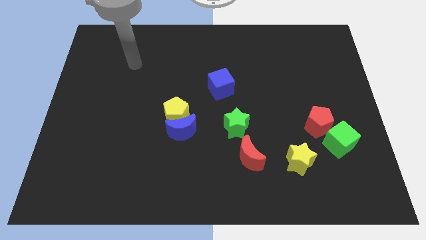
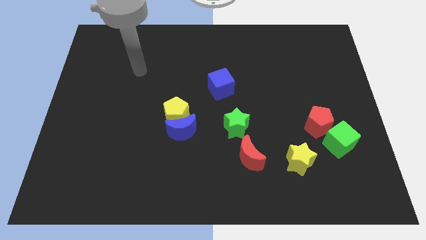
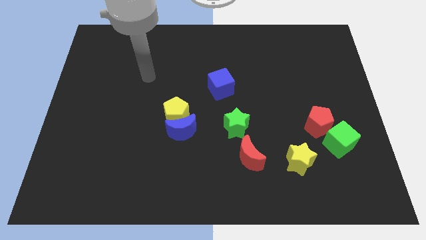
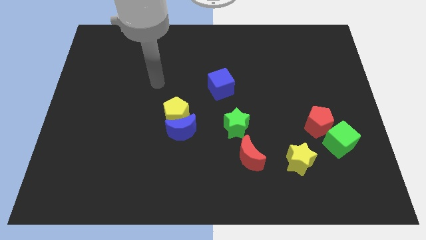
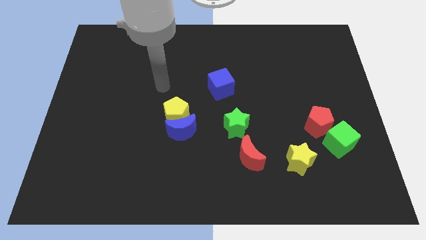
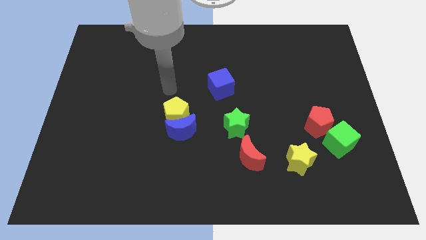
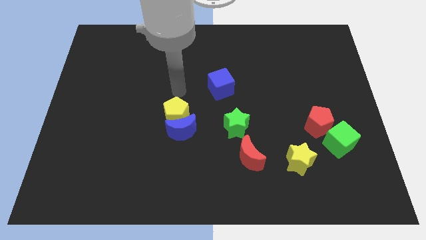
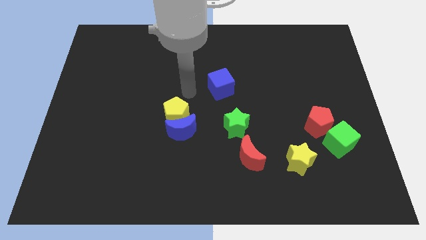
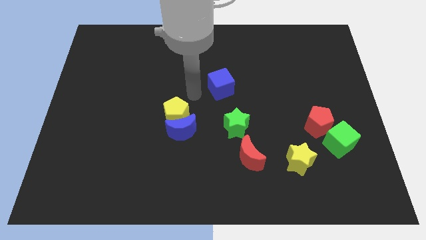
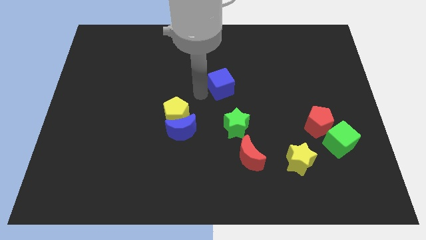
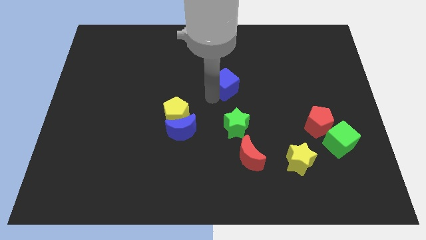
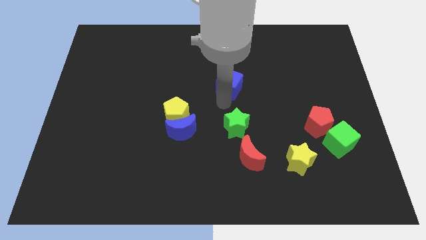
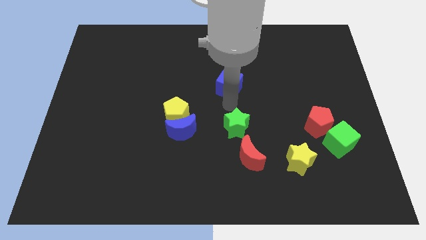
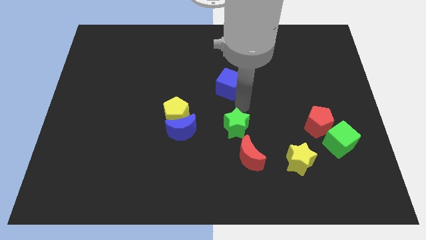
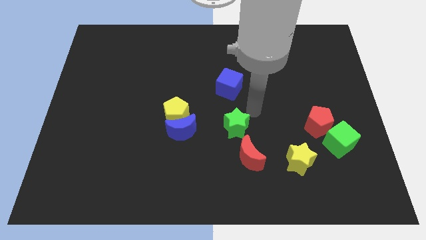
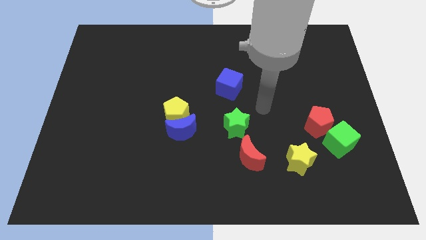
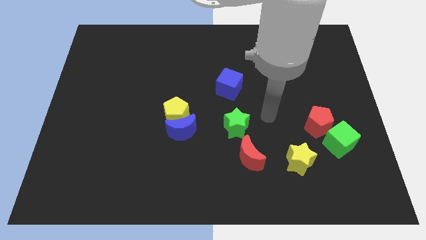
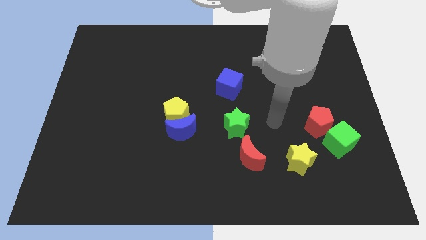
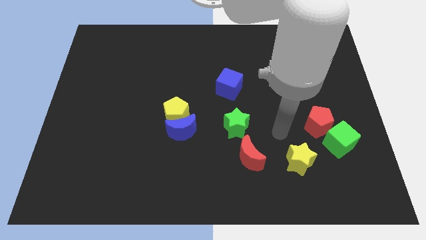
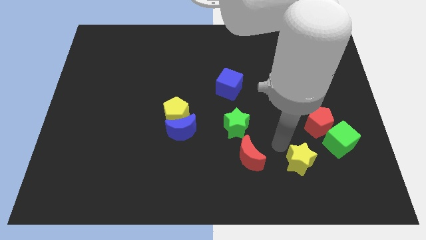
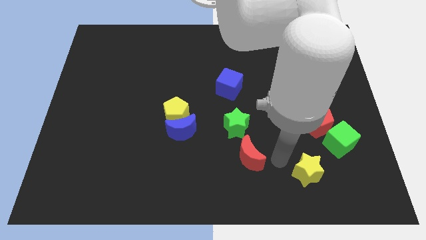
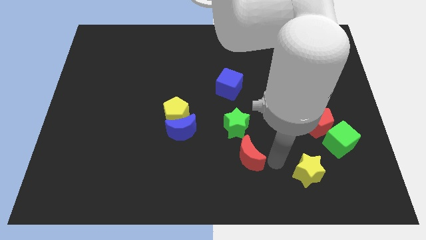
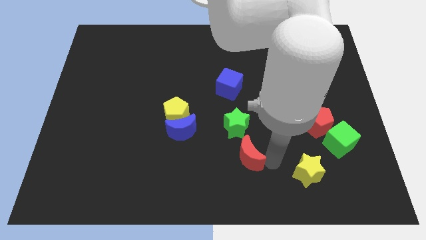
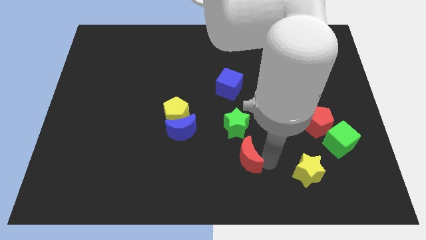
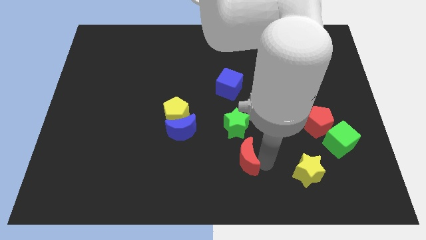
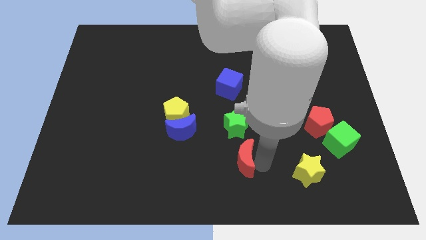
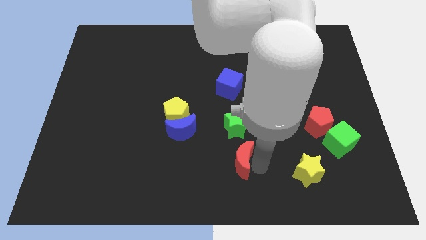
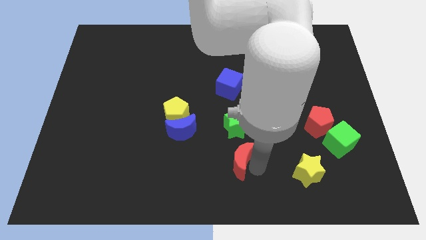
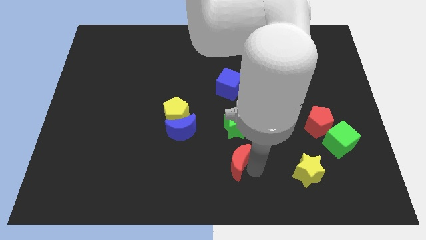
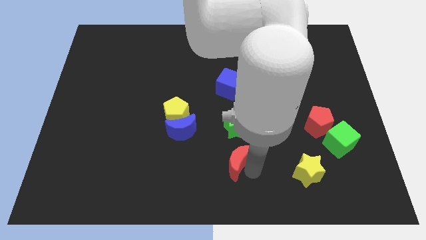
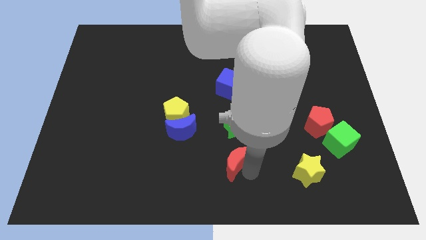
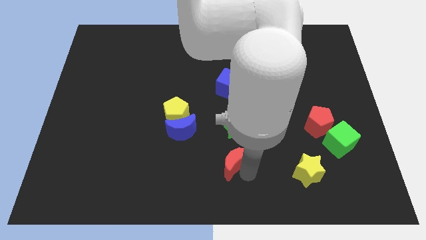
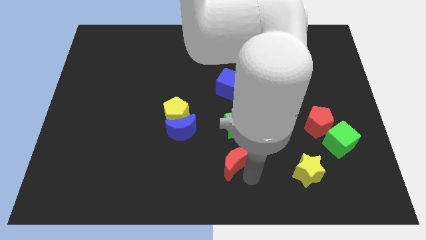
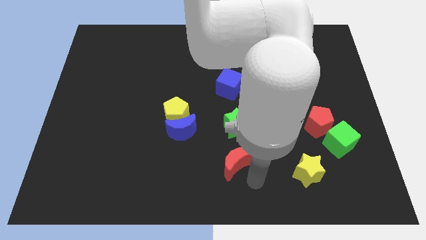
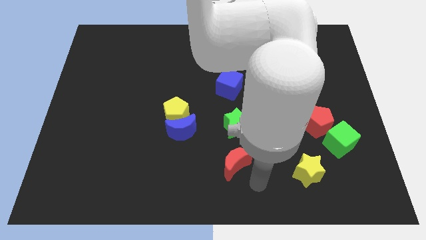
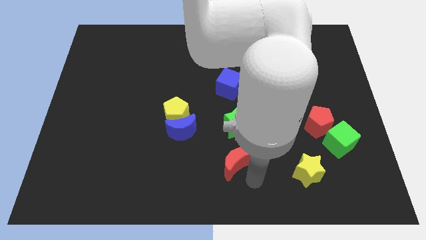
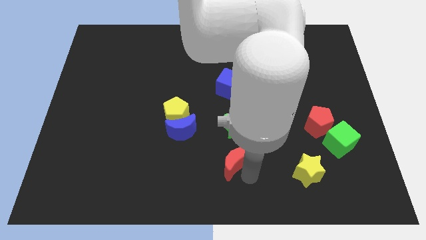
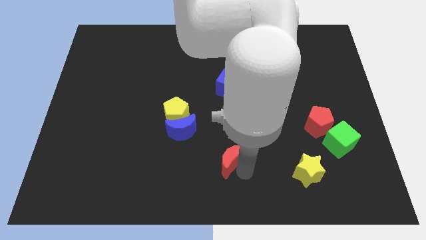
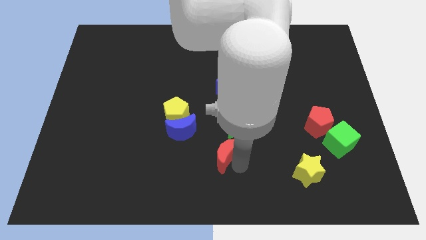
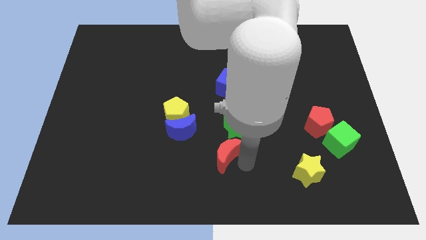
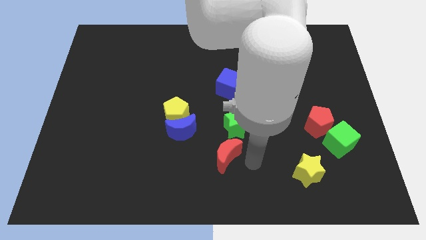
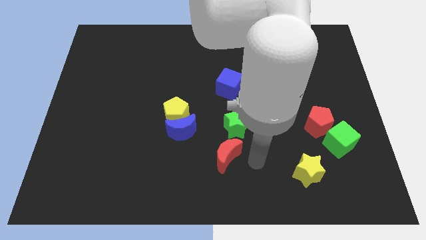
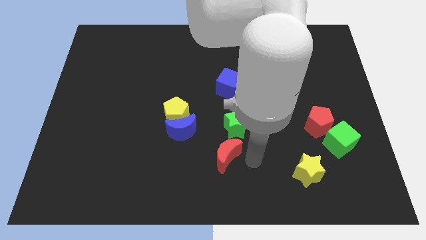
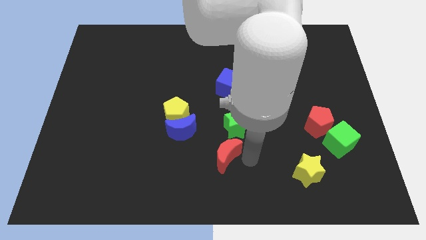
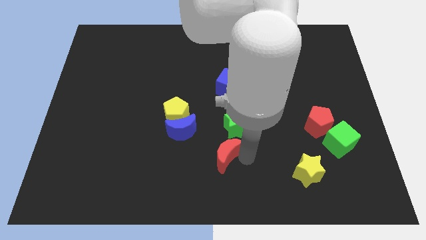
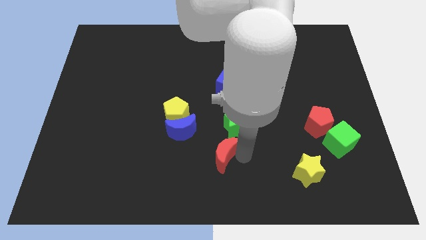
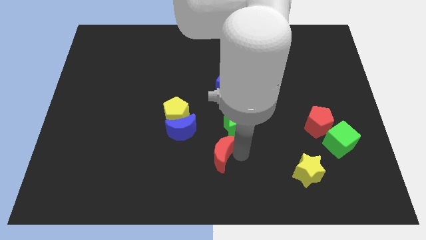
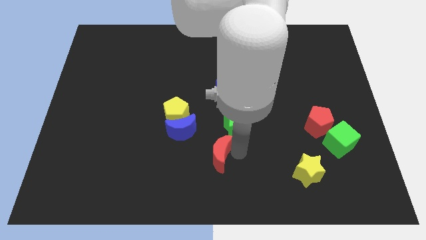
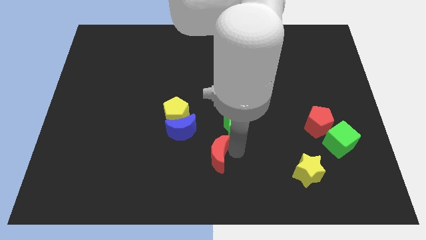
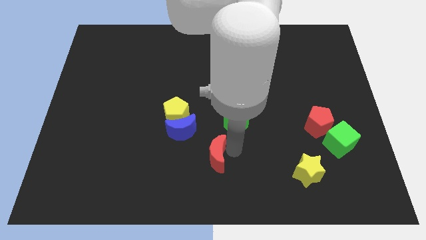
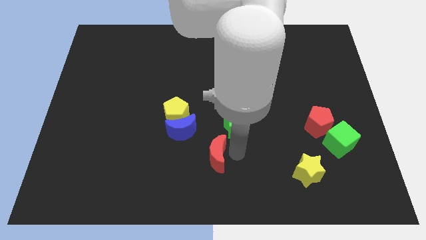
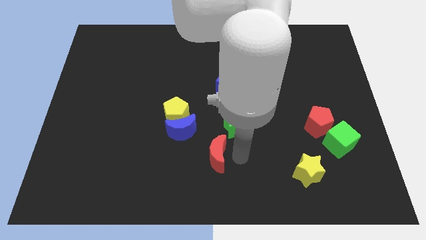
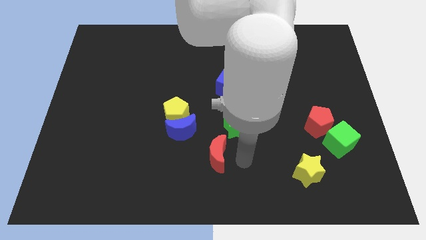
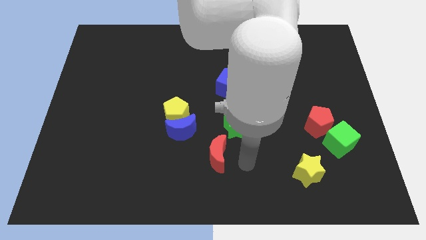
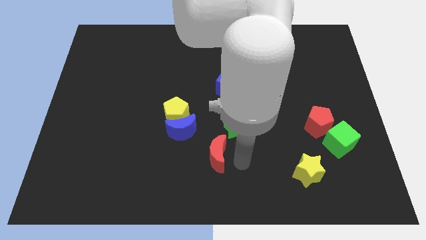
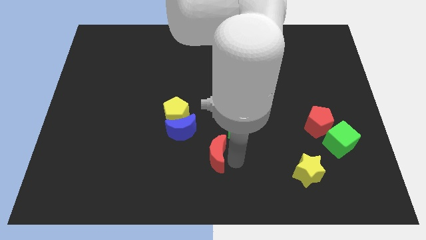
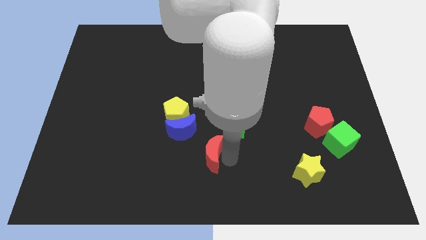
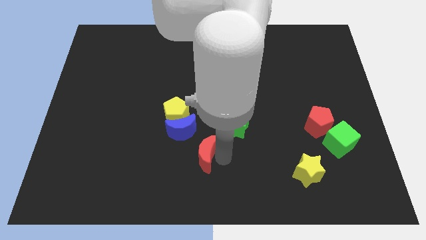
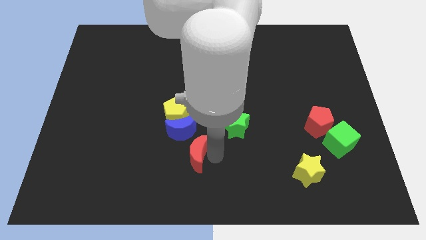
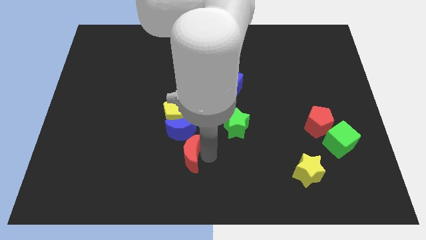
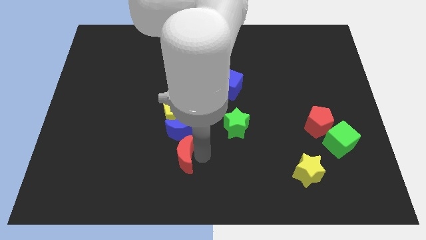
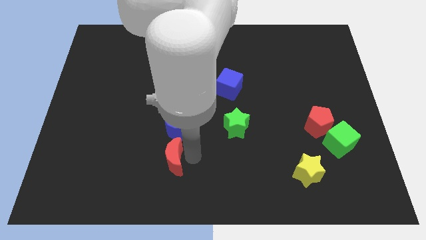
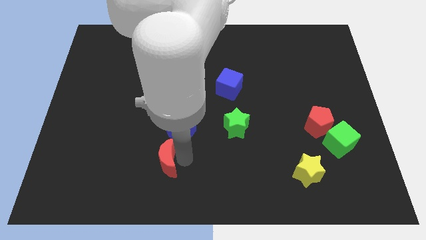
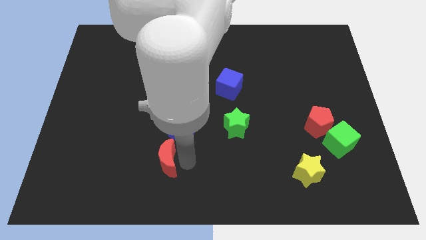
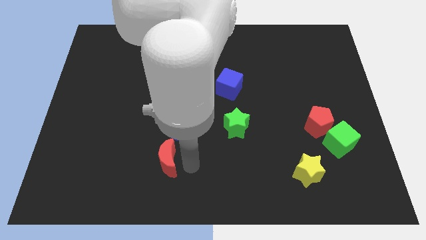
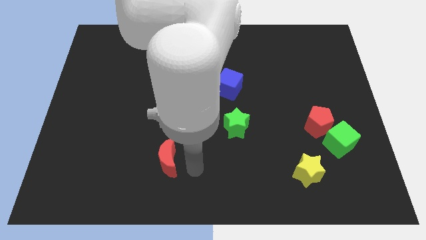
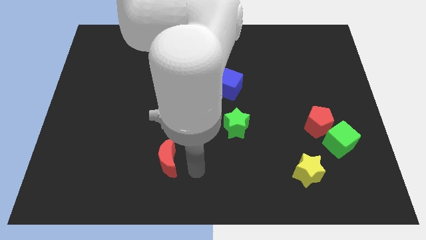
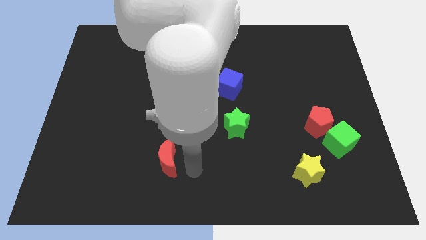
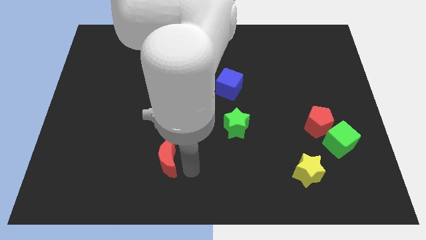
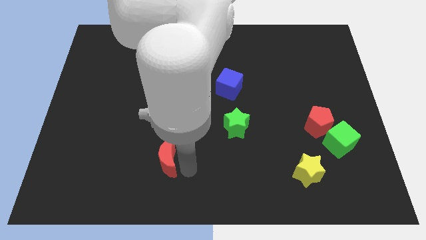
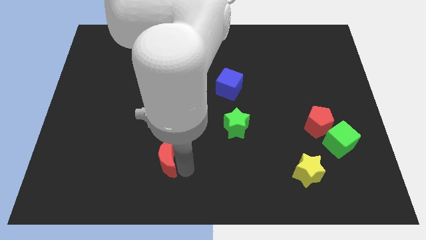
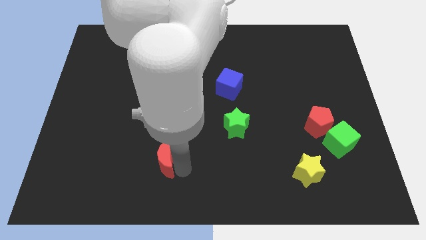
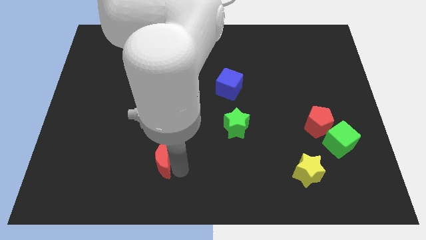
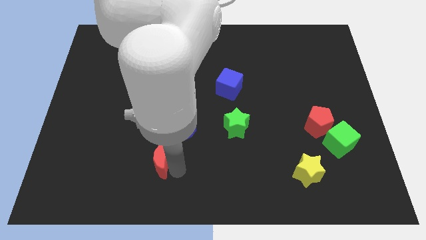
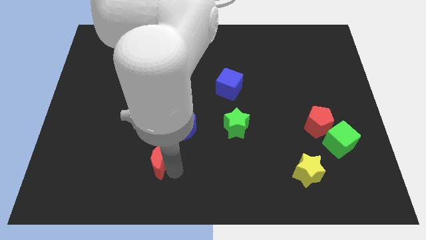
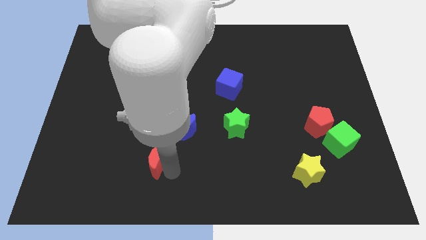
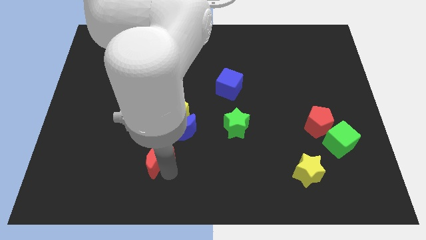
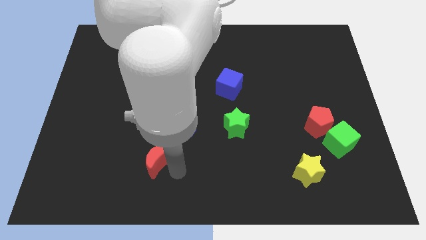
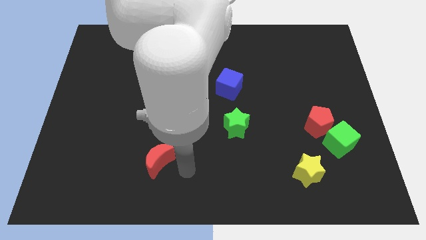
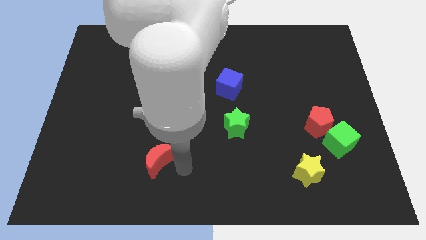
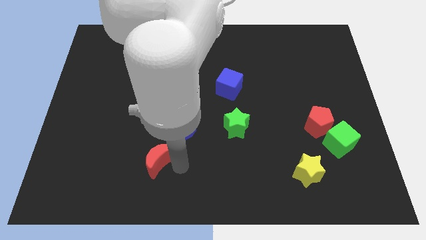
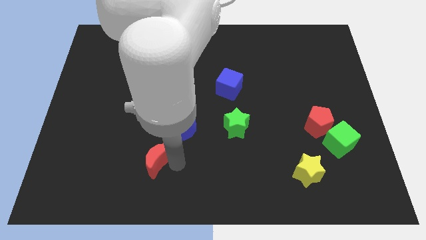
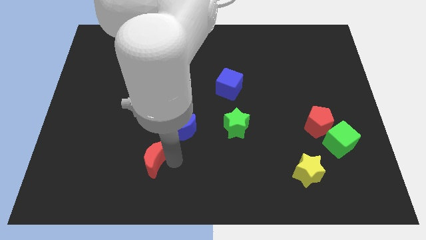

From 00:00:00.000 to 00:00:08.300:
slide the red moon to the left
